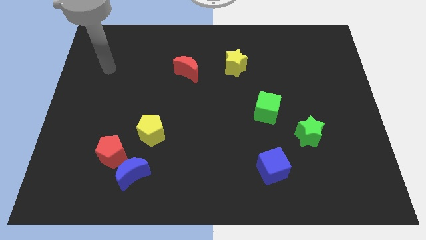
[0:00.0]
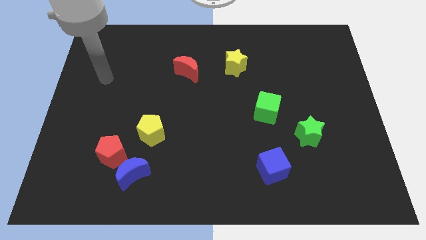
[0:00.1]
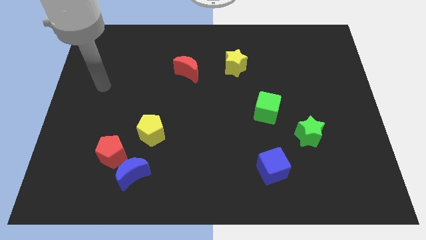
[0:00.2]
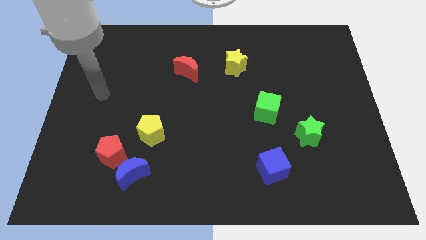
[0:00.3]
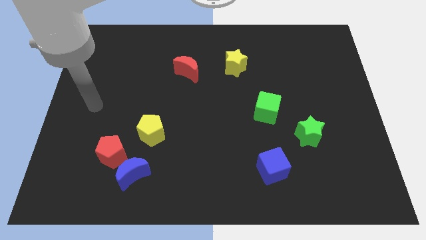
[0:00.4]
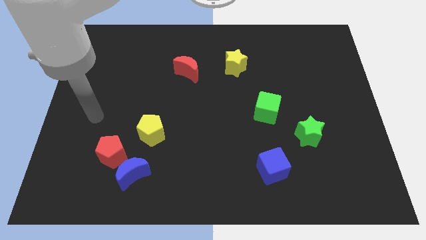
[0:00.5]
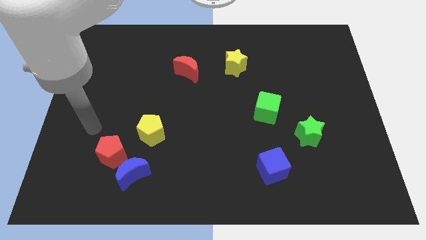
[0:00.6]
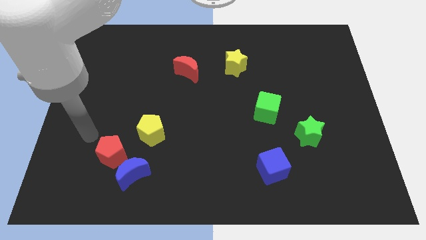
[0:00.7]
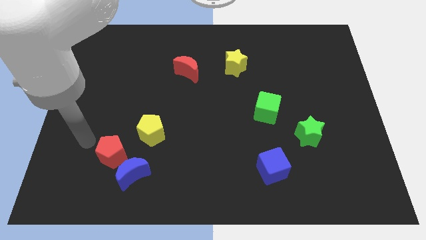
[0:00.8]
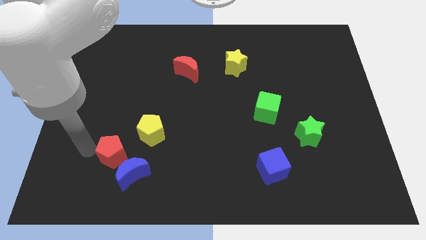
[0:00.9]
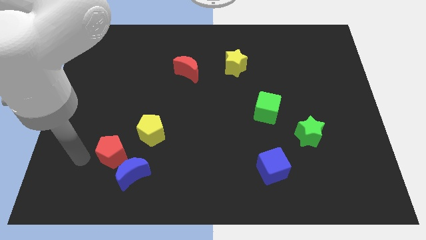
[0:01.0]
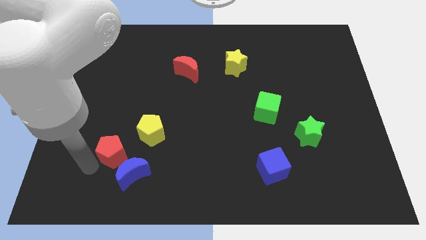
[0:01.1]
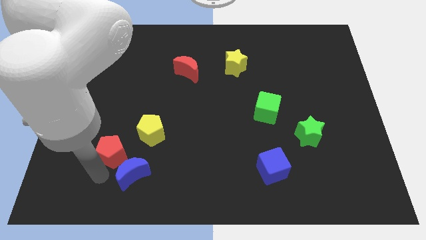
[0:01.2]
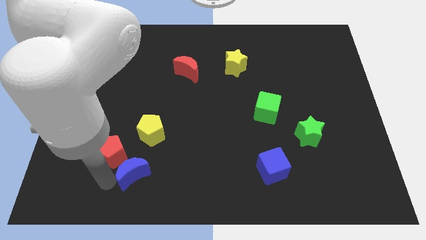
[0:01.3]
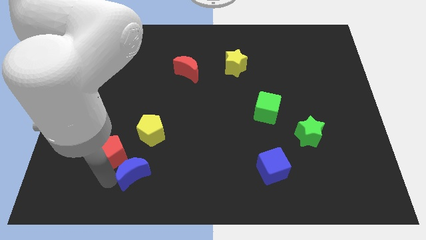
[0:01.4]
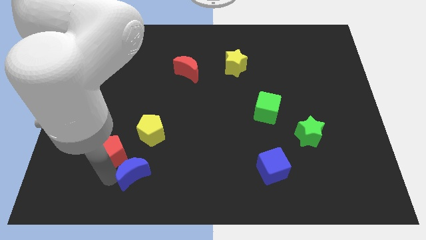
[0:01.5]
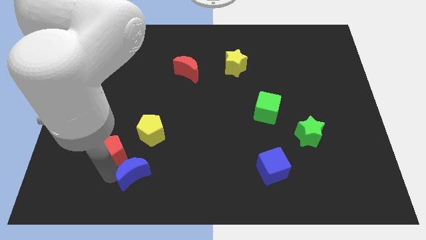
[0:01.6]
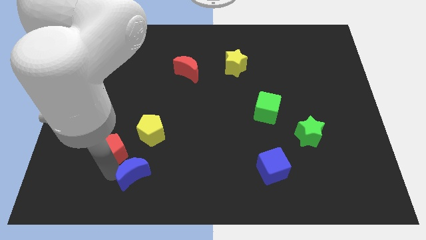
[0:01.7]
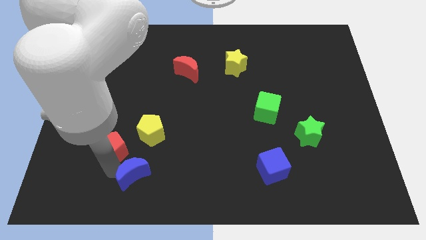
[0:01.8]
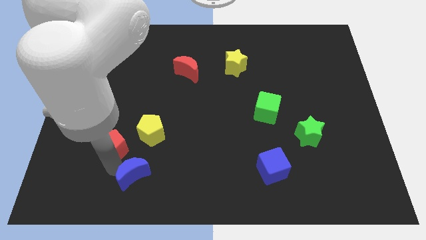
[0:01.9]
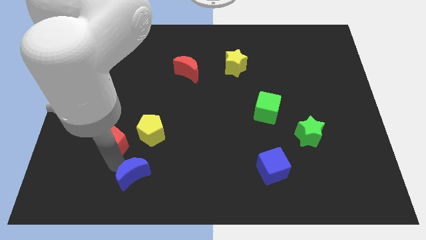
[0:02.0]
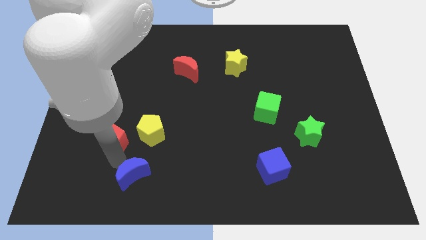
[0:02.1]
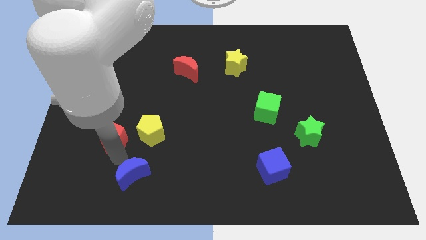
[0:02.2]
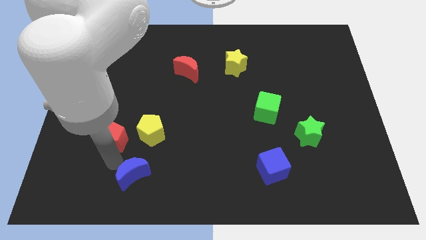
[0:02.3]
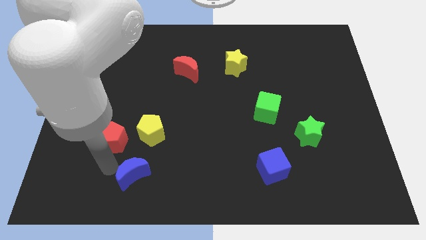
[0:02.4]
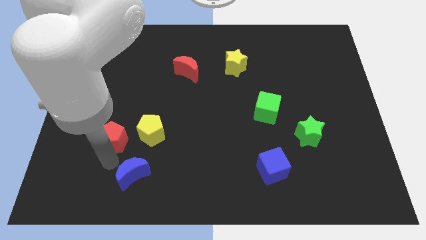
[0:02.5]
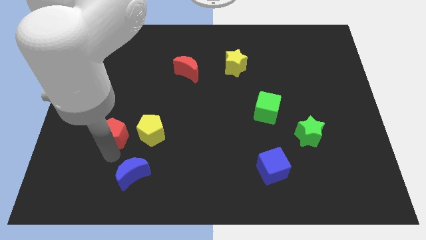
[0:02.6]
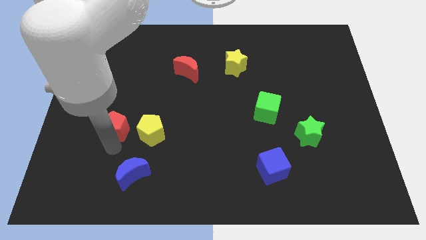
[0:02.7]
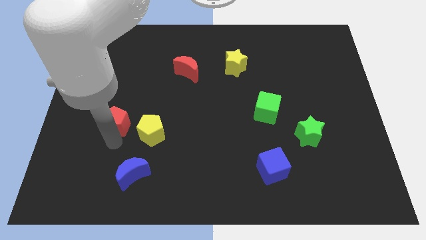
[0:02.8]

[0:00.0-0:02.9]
push the red pentagon upwards a bit

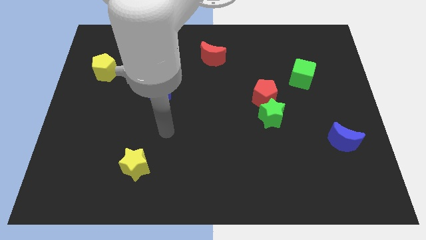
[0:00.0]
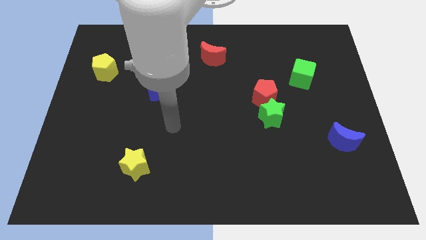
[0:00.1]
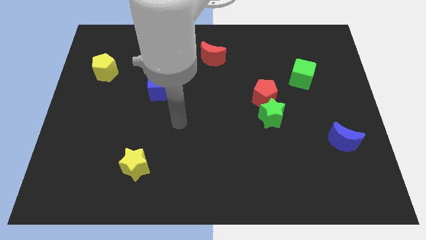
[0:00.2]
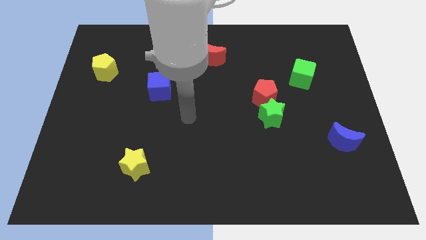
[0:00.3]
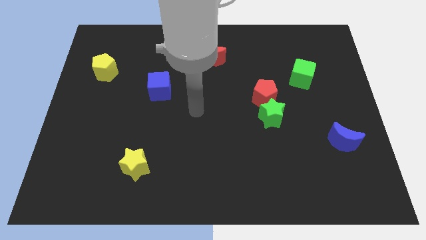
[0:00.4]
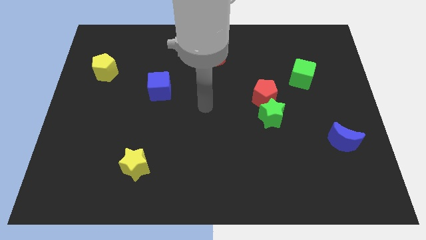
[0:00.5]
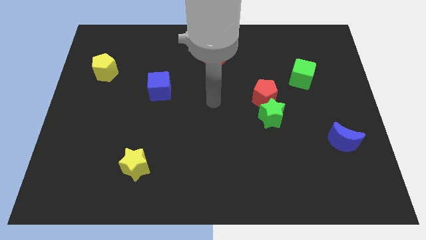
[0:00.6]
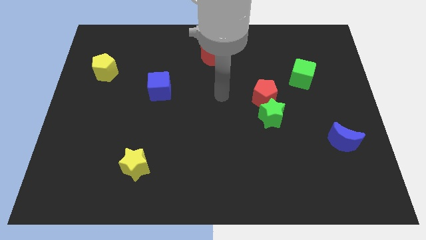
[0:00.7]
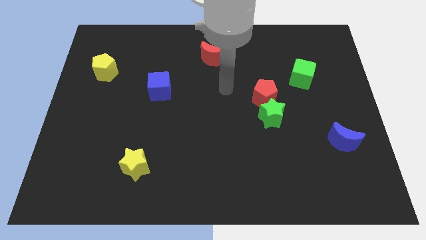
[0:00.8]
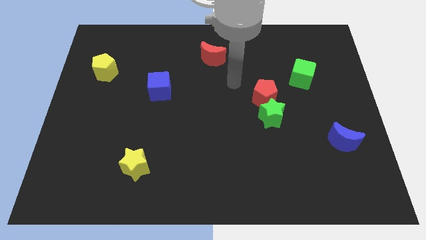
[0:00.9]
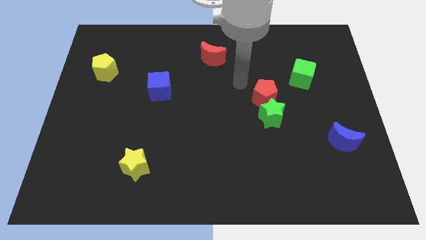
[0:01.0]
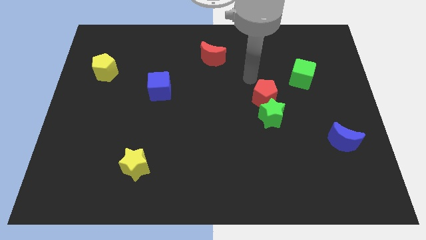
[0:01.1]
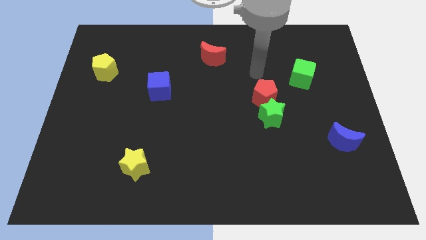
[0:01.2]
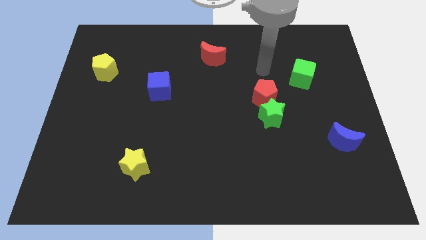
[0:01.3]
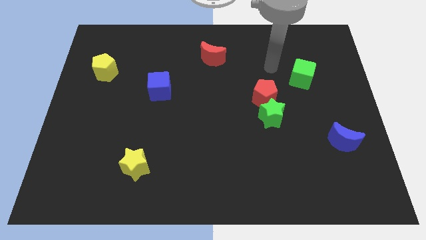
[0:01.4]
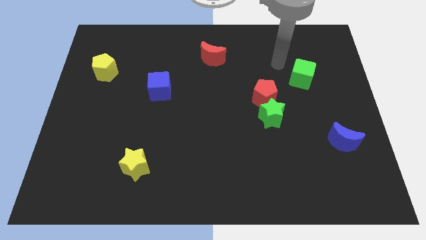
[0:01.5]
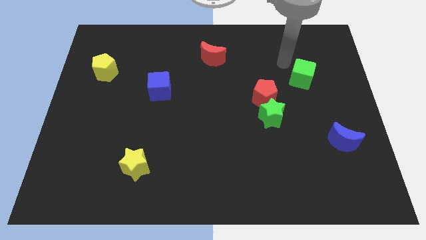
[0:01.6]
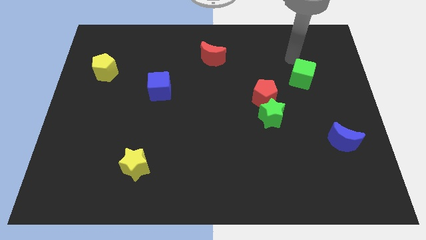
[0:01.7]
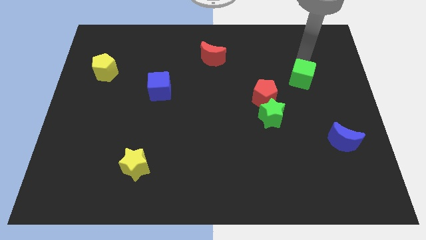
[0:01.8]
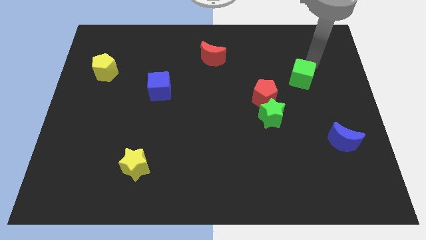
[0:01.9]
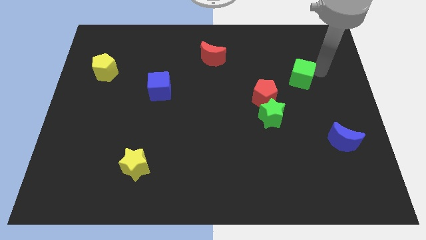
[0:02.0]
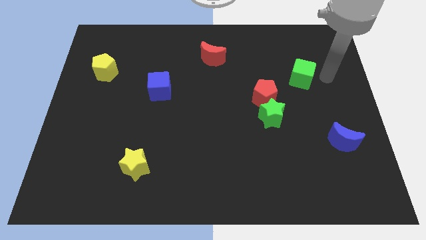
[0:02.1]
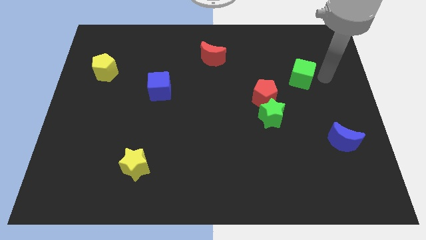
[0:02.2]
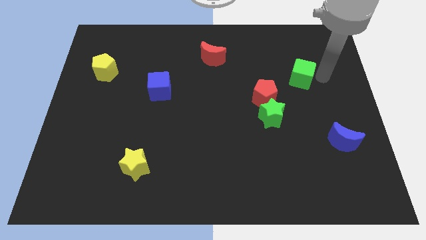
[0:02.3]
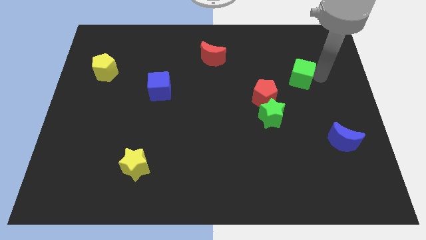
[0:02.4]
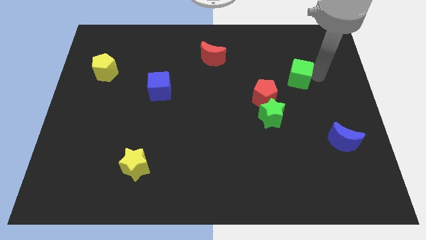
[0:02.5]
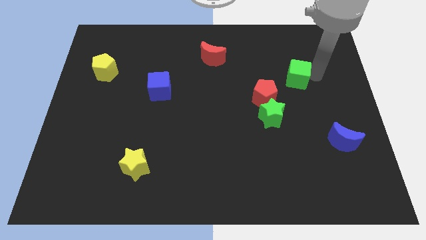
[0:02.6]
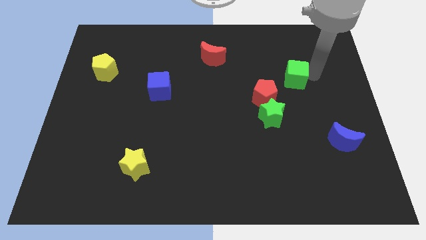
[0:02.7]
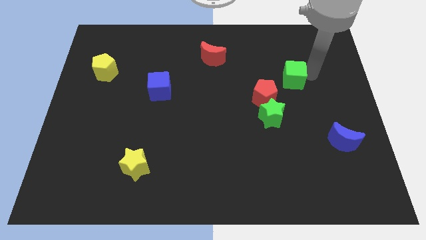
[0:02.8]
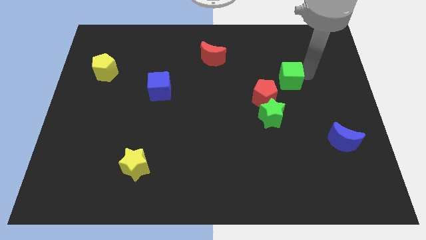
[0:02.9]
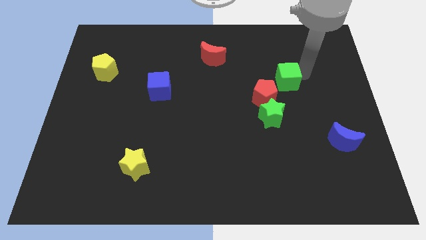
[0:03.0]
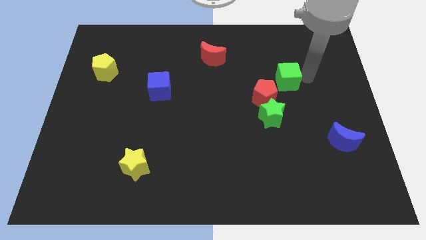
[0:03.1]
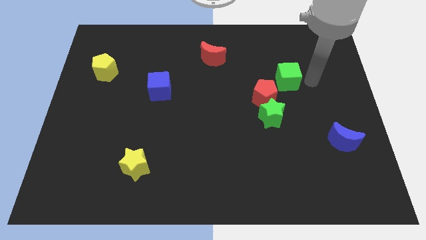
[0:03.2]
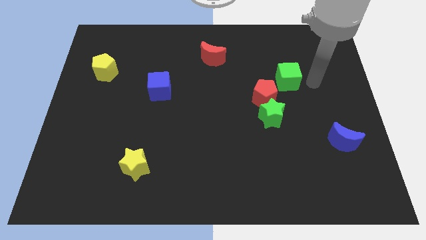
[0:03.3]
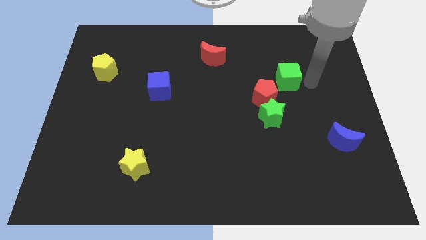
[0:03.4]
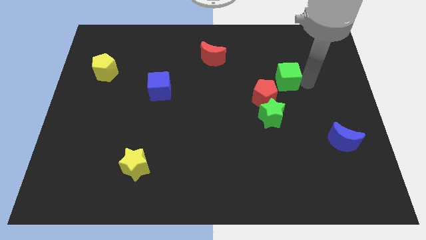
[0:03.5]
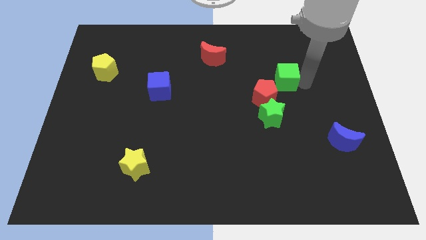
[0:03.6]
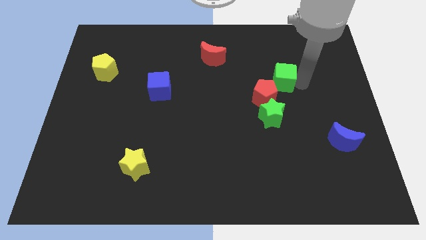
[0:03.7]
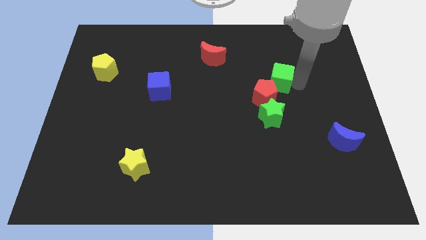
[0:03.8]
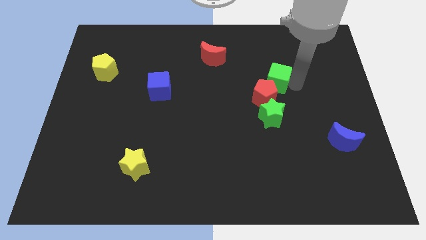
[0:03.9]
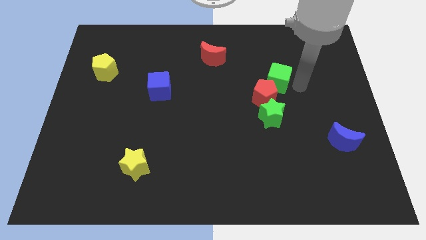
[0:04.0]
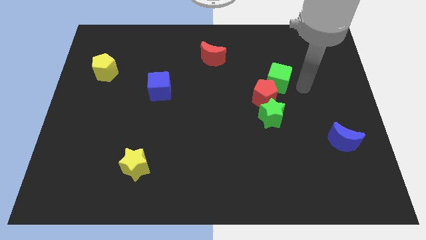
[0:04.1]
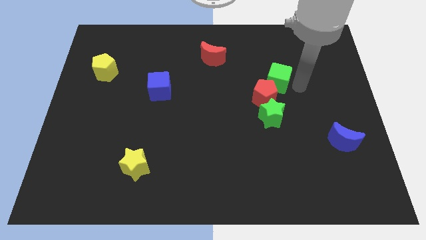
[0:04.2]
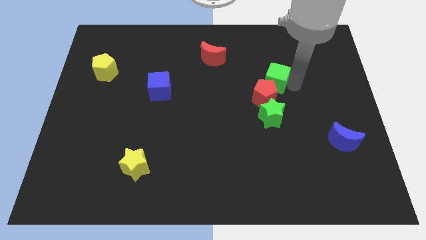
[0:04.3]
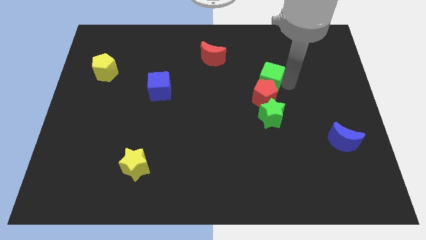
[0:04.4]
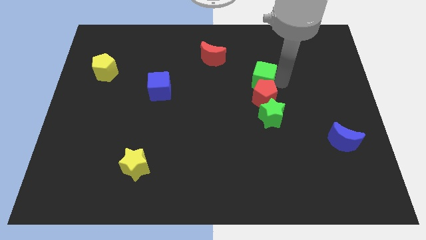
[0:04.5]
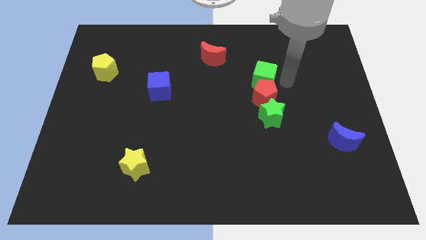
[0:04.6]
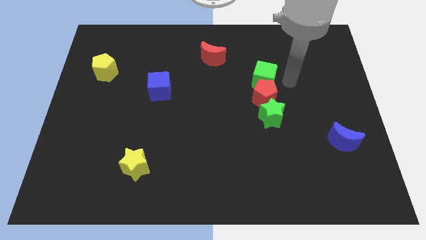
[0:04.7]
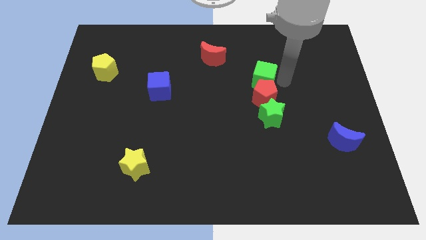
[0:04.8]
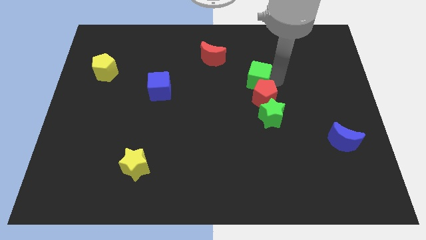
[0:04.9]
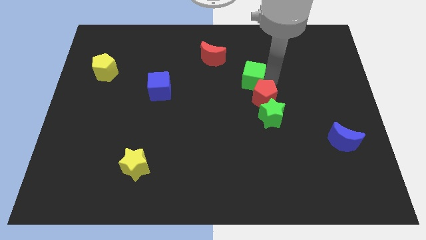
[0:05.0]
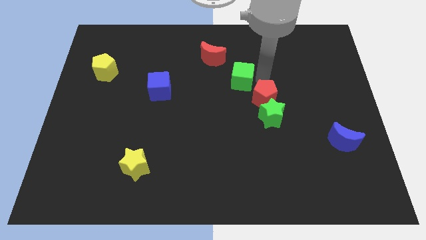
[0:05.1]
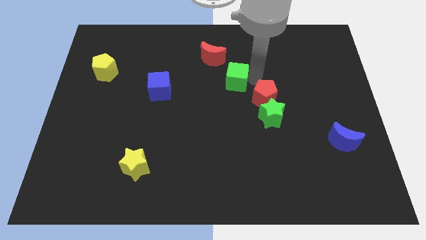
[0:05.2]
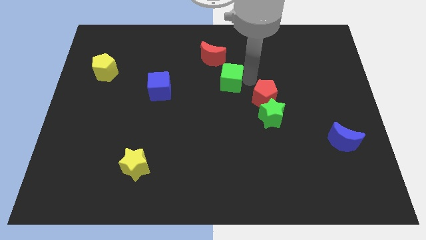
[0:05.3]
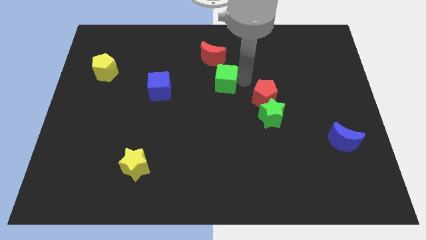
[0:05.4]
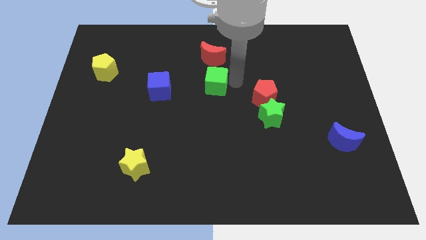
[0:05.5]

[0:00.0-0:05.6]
push the green cube left
